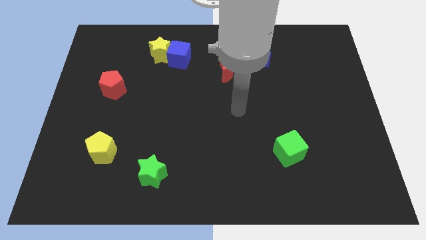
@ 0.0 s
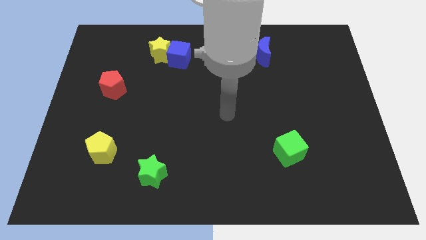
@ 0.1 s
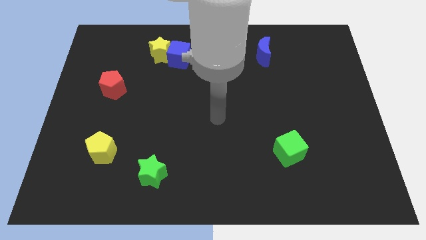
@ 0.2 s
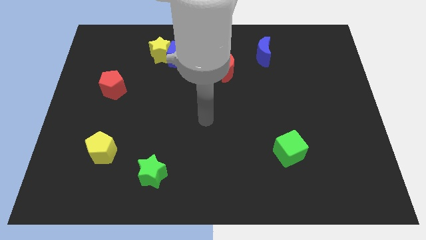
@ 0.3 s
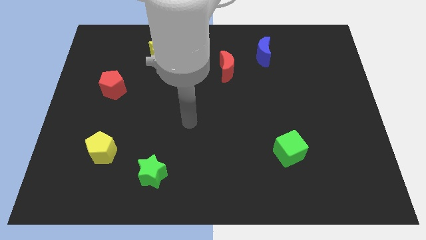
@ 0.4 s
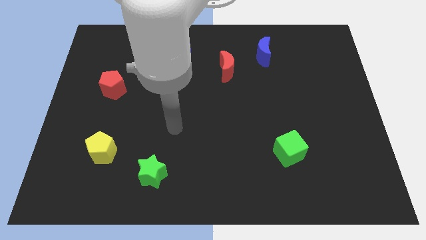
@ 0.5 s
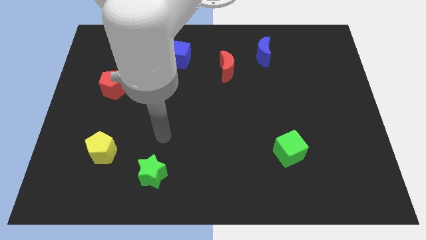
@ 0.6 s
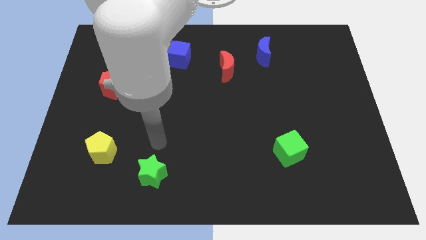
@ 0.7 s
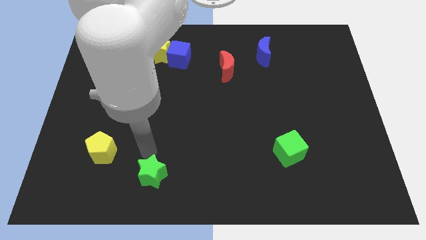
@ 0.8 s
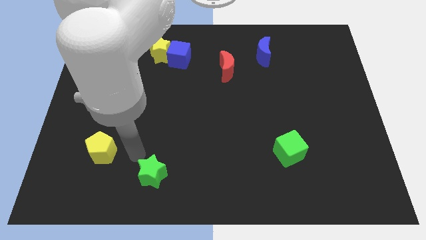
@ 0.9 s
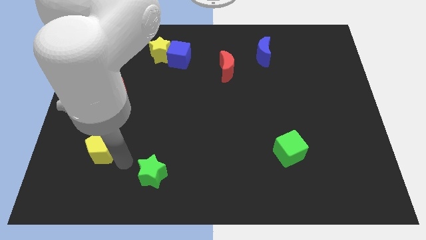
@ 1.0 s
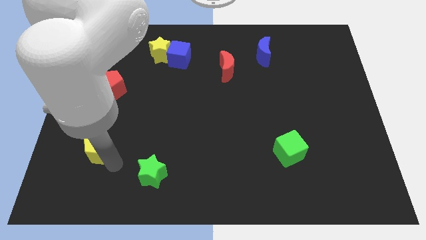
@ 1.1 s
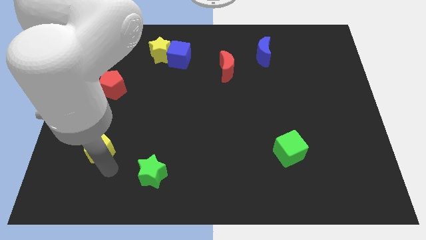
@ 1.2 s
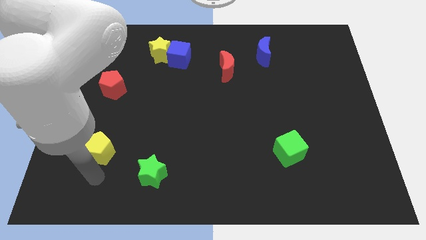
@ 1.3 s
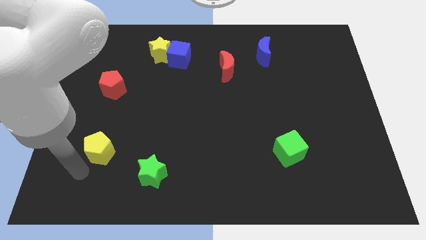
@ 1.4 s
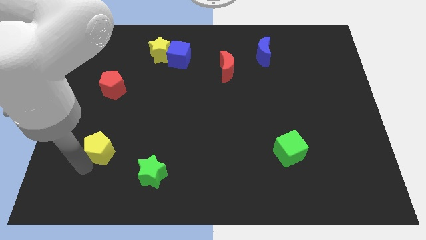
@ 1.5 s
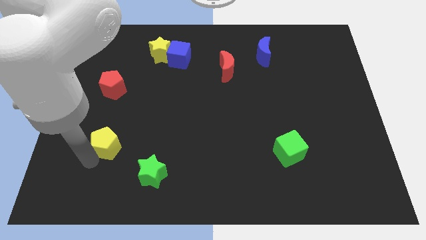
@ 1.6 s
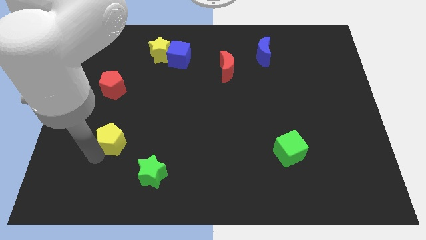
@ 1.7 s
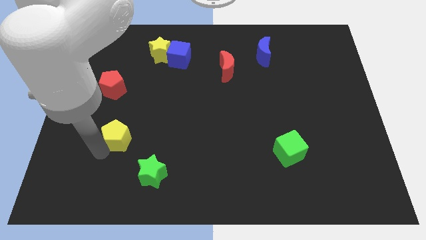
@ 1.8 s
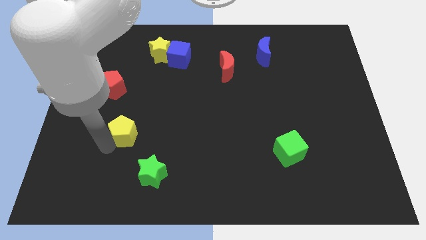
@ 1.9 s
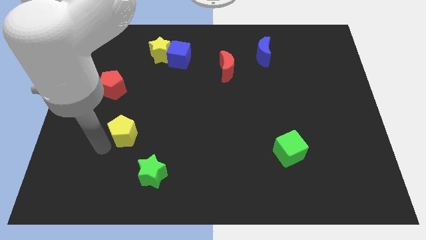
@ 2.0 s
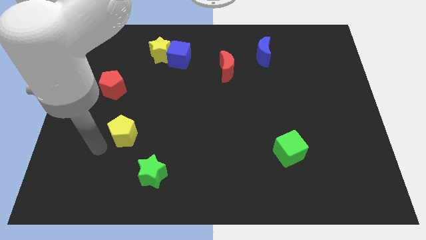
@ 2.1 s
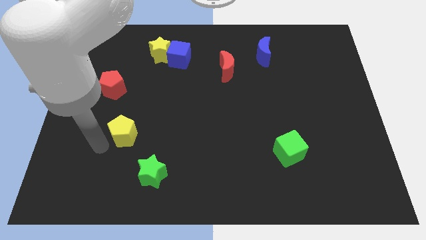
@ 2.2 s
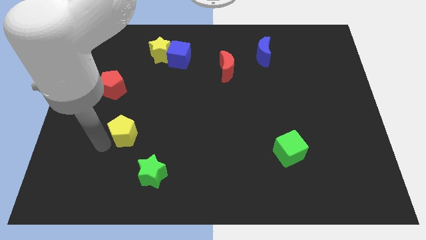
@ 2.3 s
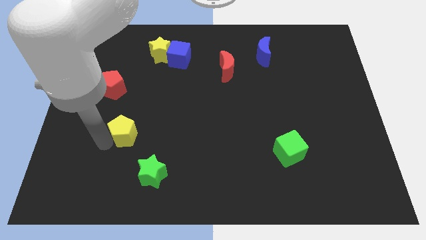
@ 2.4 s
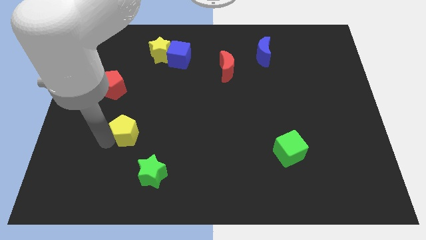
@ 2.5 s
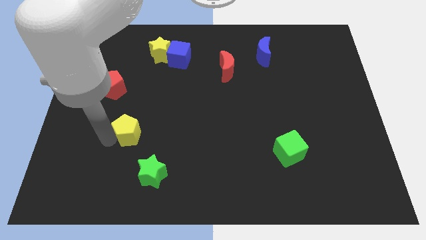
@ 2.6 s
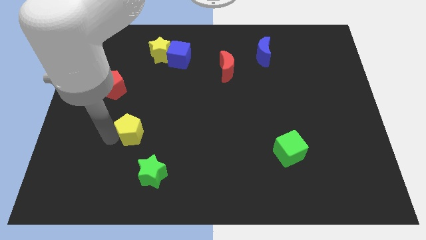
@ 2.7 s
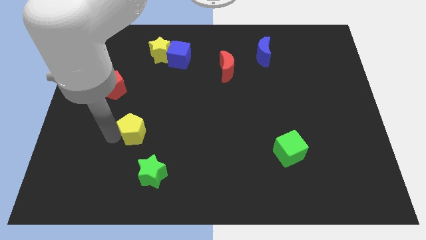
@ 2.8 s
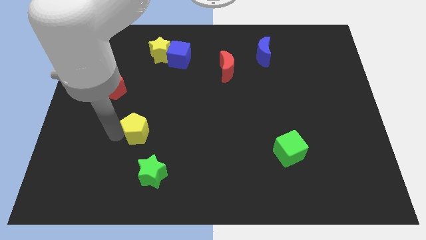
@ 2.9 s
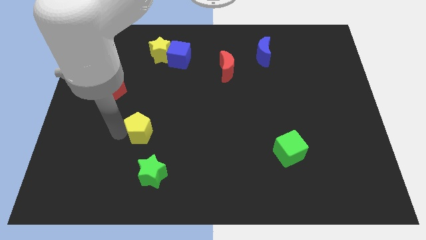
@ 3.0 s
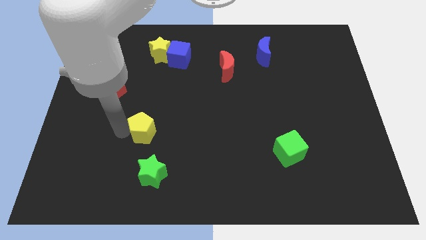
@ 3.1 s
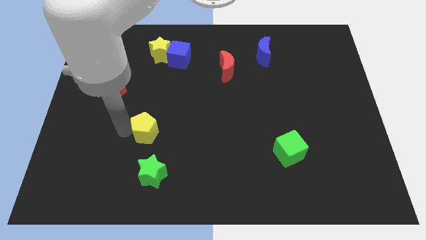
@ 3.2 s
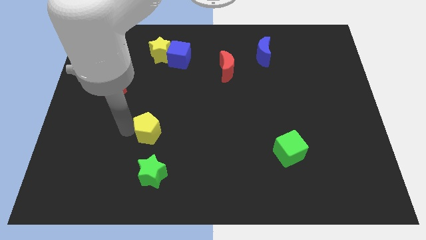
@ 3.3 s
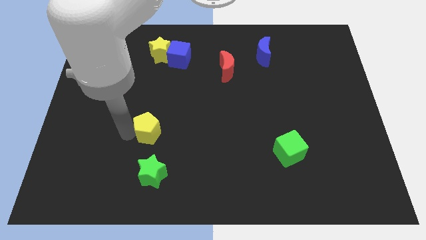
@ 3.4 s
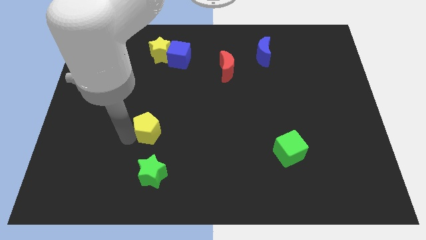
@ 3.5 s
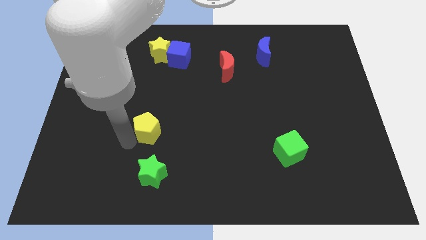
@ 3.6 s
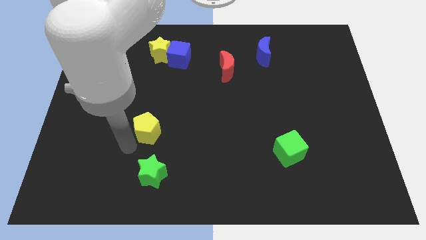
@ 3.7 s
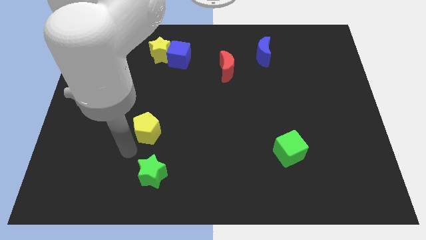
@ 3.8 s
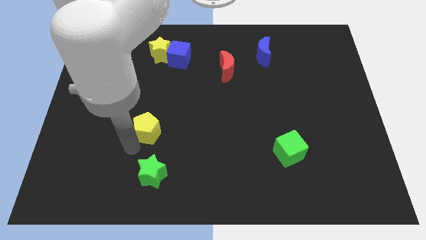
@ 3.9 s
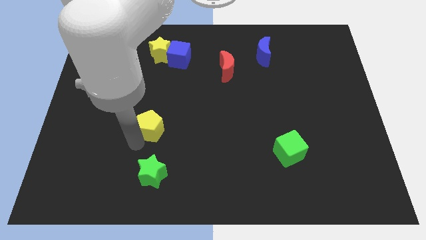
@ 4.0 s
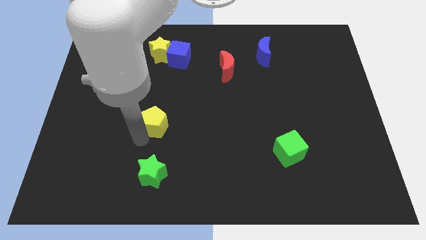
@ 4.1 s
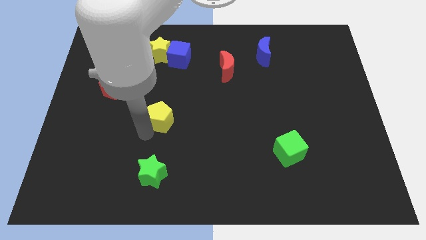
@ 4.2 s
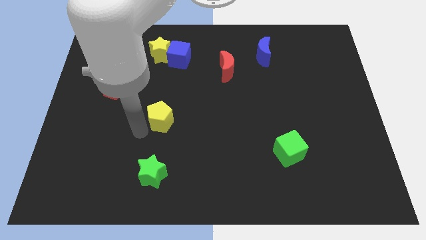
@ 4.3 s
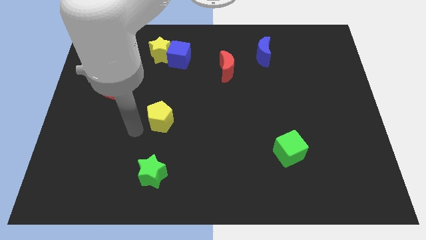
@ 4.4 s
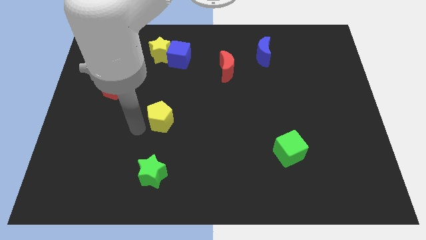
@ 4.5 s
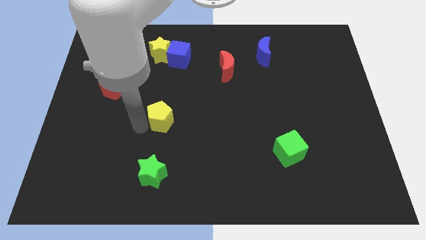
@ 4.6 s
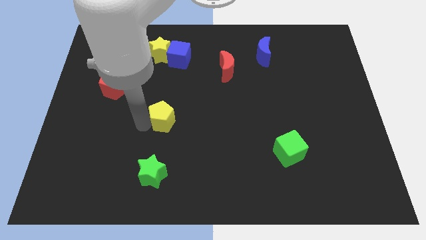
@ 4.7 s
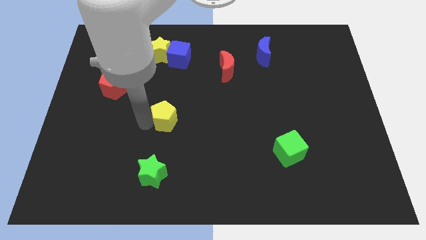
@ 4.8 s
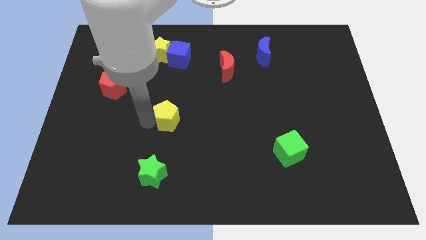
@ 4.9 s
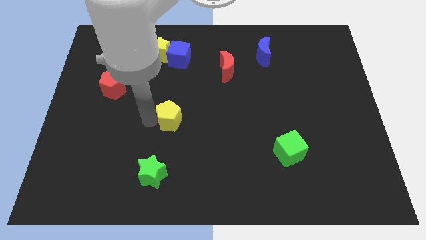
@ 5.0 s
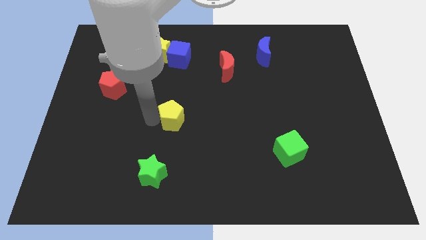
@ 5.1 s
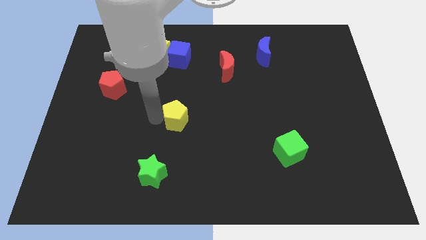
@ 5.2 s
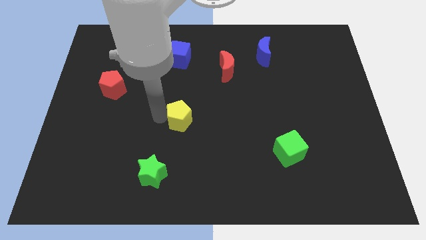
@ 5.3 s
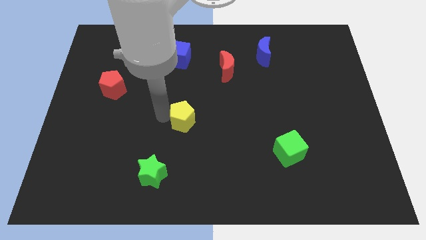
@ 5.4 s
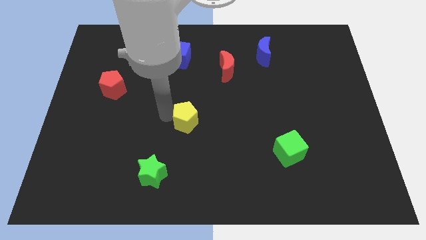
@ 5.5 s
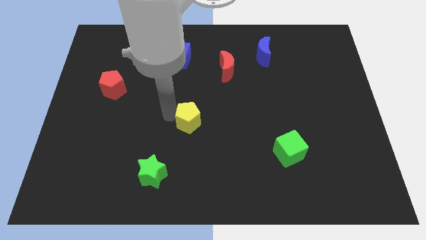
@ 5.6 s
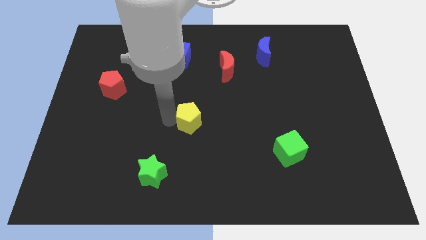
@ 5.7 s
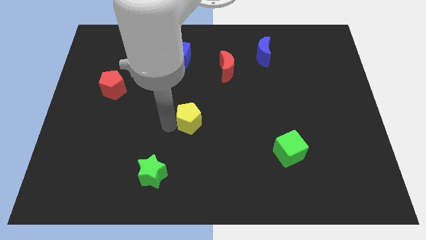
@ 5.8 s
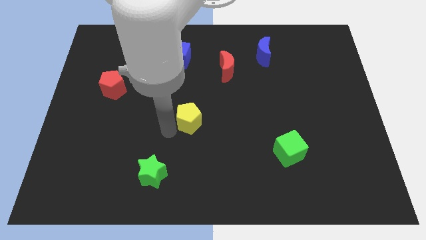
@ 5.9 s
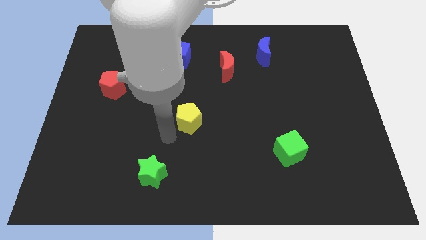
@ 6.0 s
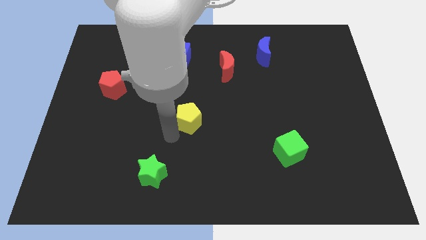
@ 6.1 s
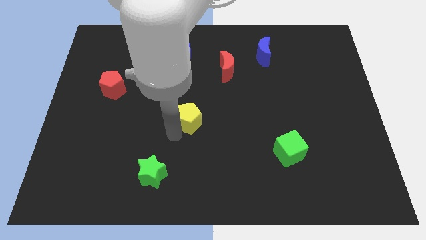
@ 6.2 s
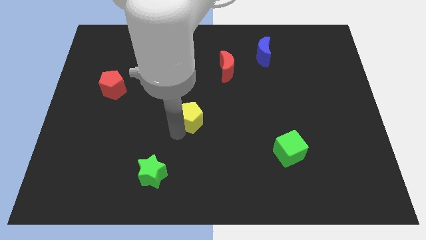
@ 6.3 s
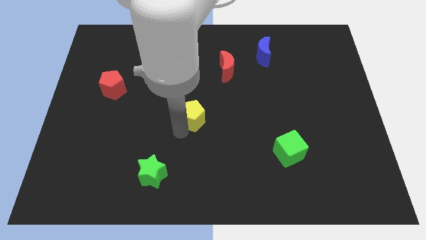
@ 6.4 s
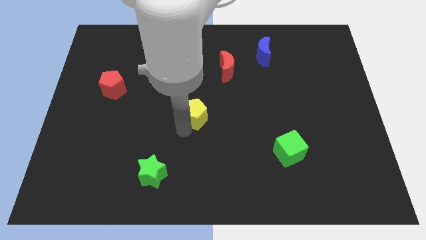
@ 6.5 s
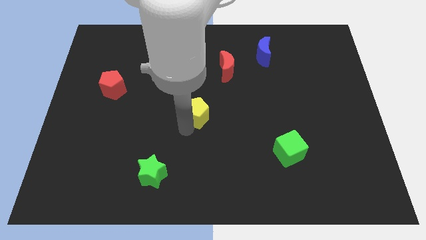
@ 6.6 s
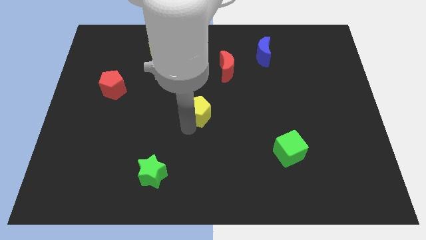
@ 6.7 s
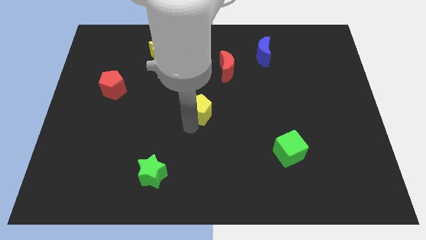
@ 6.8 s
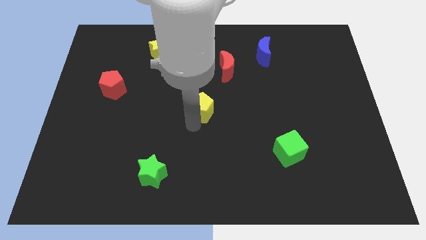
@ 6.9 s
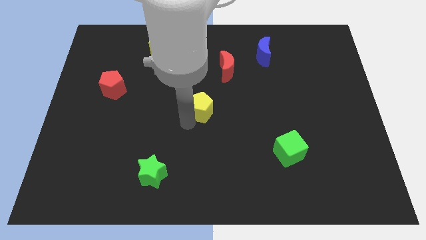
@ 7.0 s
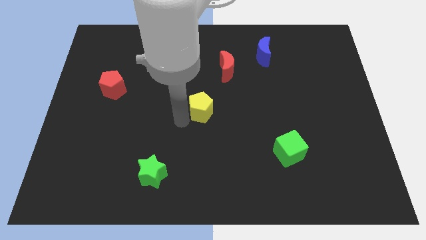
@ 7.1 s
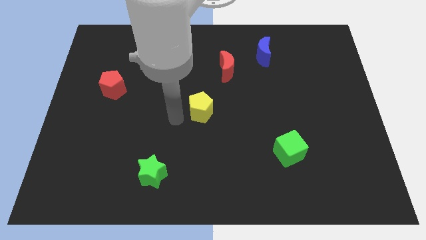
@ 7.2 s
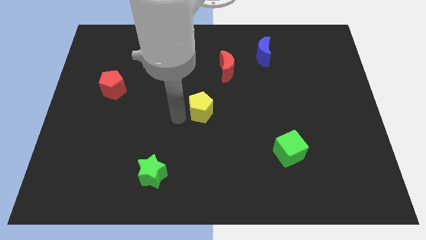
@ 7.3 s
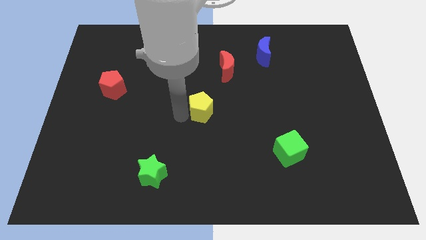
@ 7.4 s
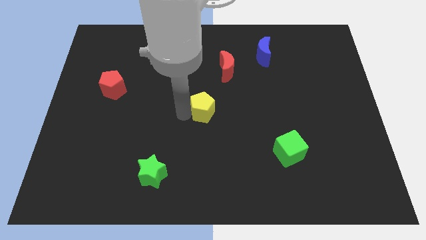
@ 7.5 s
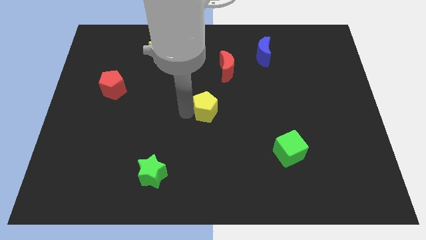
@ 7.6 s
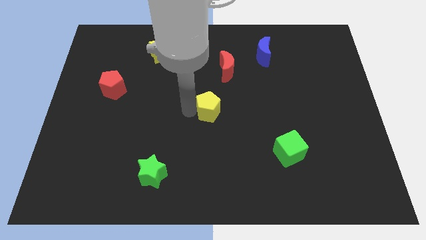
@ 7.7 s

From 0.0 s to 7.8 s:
move the yellow pentagon below the red moon
